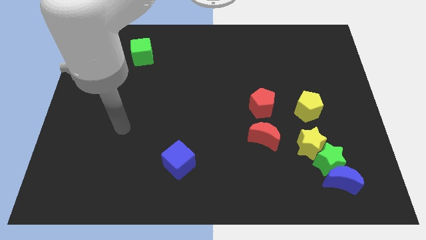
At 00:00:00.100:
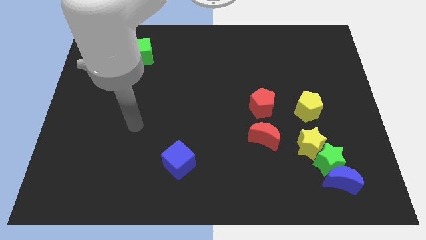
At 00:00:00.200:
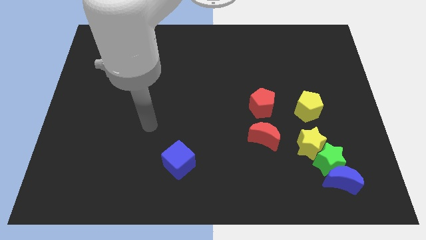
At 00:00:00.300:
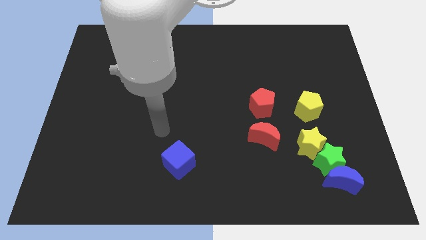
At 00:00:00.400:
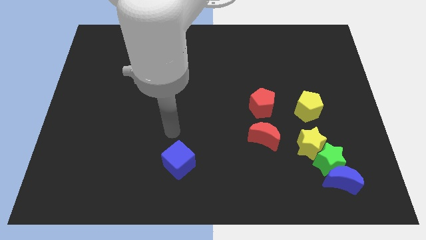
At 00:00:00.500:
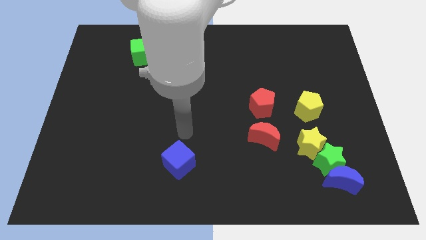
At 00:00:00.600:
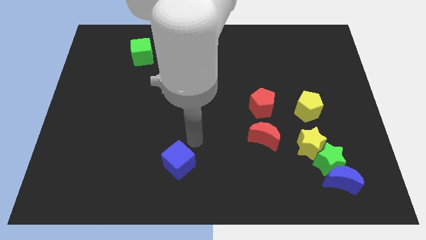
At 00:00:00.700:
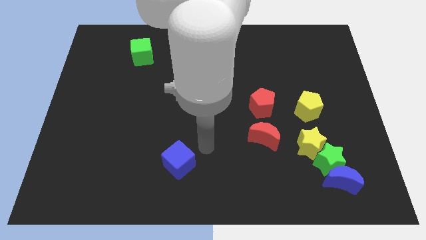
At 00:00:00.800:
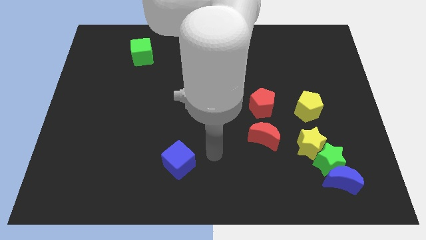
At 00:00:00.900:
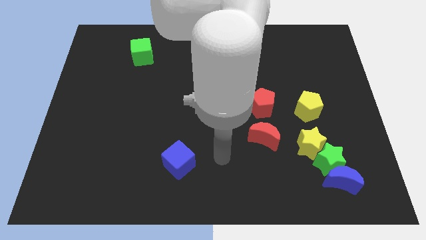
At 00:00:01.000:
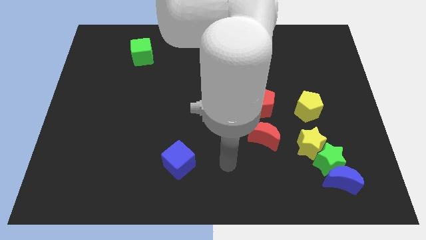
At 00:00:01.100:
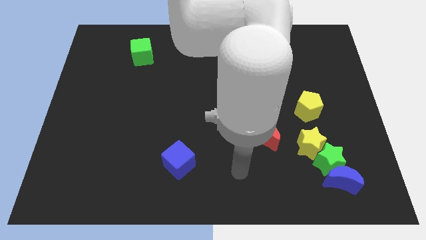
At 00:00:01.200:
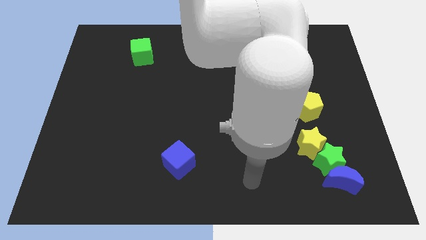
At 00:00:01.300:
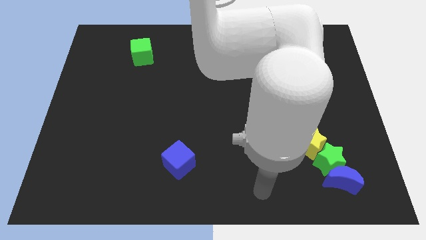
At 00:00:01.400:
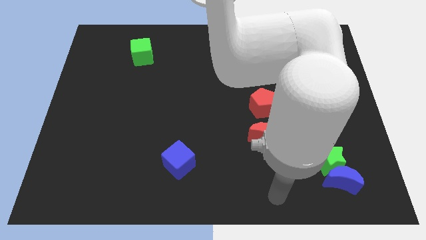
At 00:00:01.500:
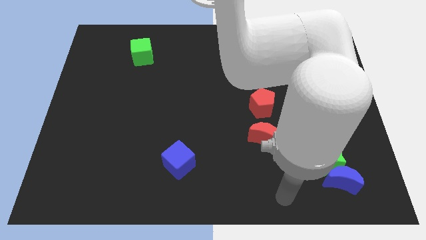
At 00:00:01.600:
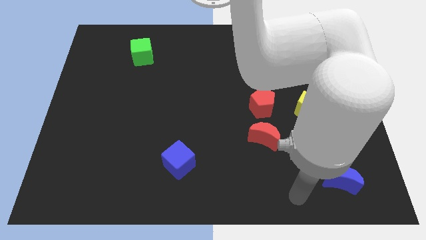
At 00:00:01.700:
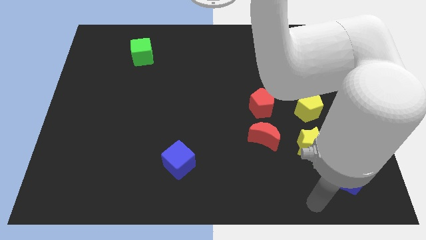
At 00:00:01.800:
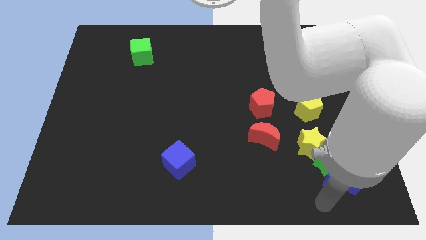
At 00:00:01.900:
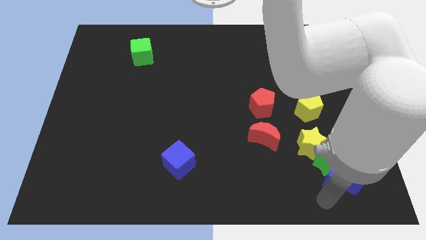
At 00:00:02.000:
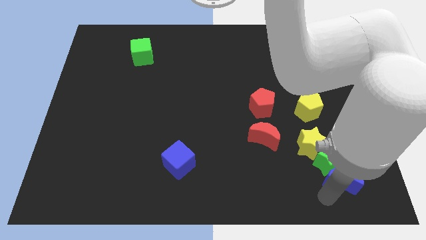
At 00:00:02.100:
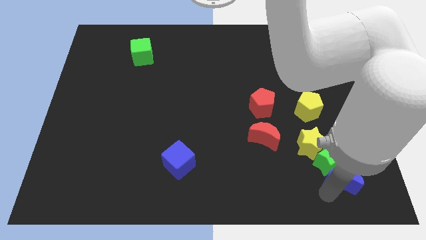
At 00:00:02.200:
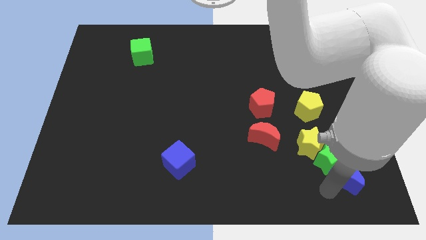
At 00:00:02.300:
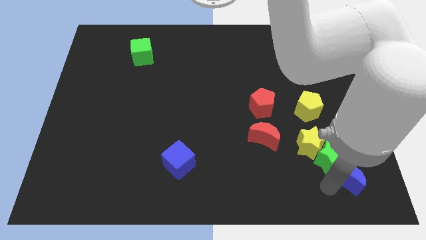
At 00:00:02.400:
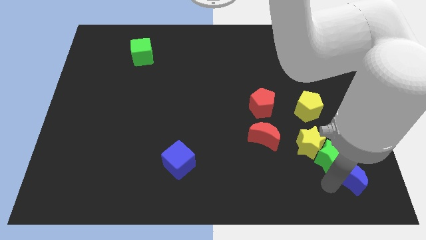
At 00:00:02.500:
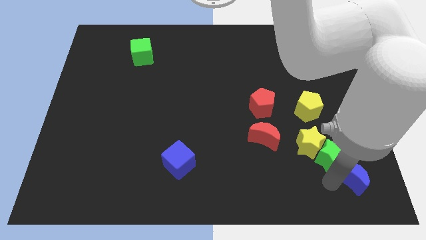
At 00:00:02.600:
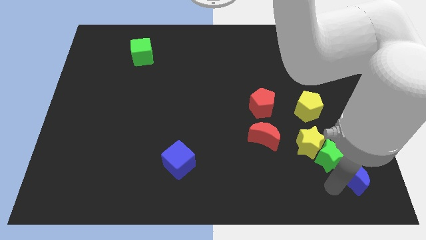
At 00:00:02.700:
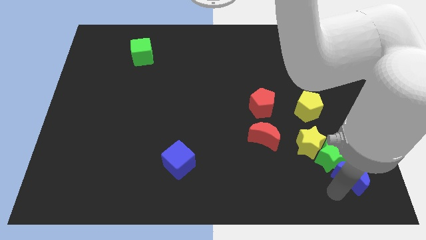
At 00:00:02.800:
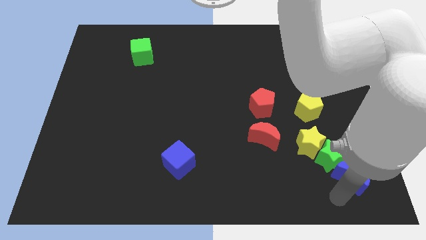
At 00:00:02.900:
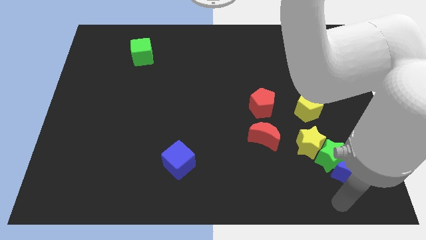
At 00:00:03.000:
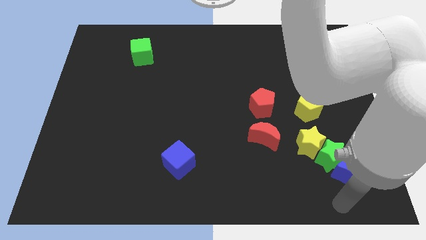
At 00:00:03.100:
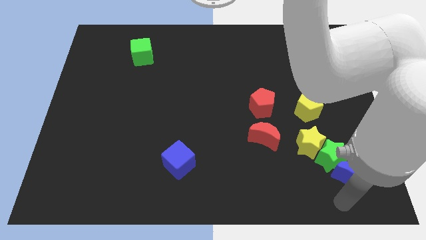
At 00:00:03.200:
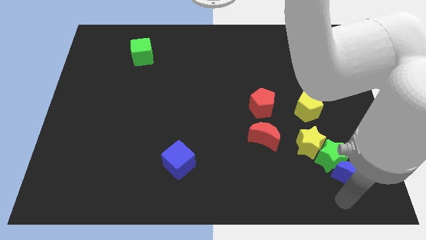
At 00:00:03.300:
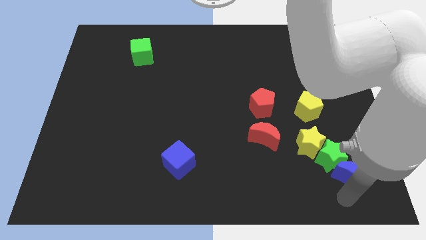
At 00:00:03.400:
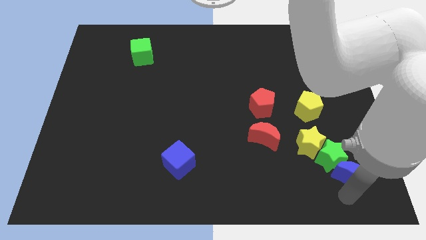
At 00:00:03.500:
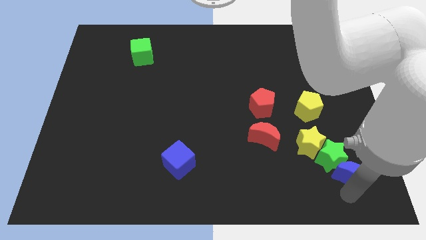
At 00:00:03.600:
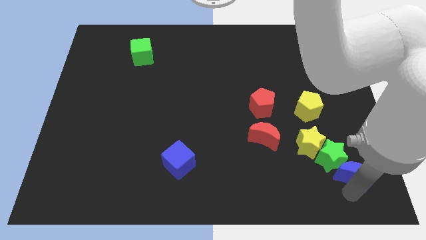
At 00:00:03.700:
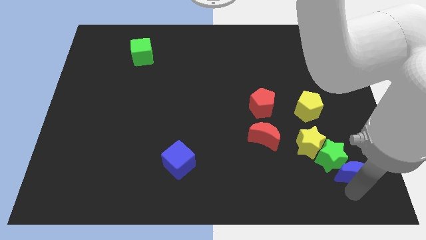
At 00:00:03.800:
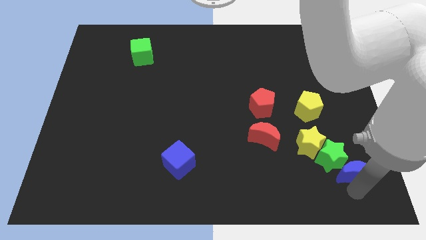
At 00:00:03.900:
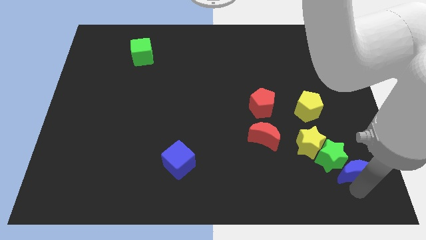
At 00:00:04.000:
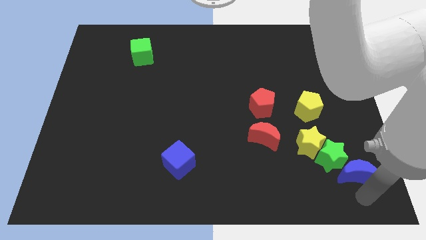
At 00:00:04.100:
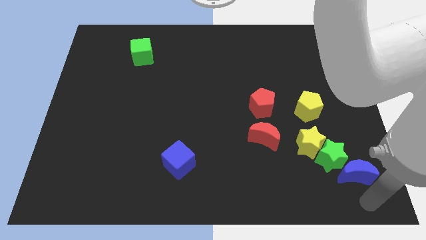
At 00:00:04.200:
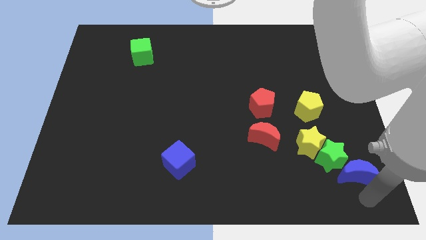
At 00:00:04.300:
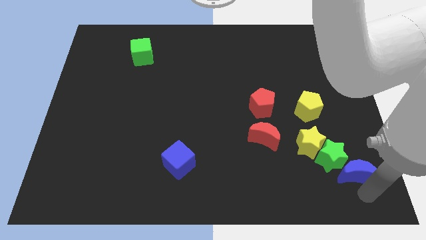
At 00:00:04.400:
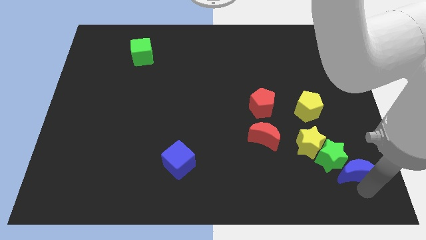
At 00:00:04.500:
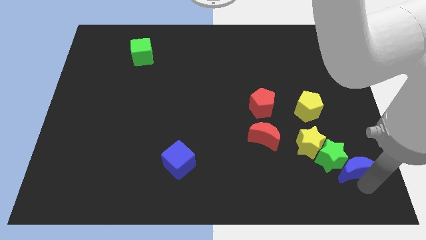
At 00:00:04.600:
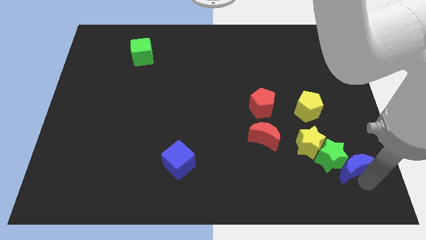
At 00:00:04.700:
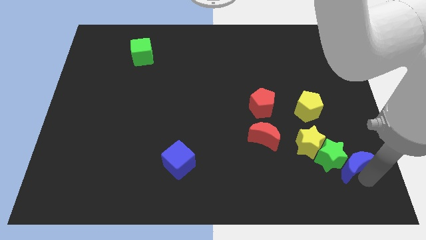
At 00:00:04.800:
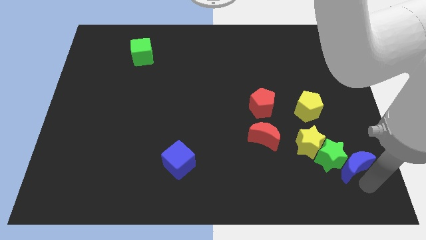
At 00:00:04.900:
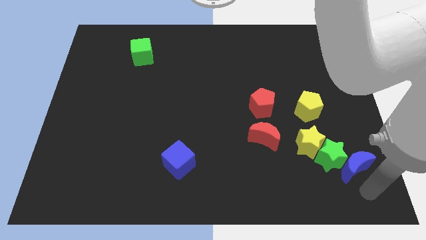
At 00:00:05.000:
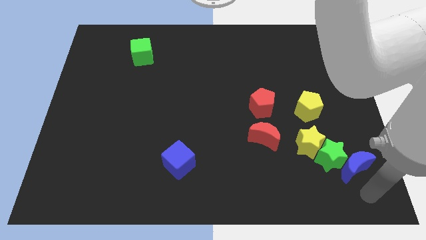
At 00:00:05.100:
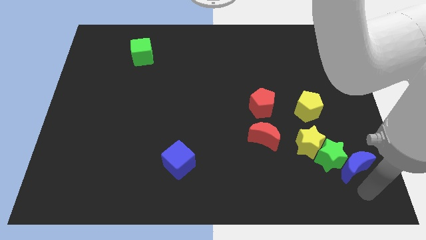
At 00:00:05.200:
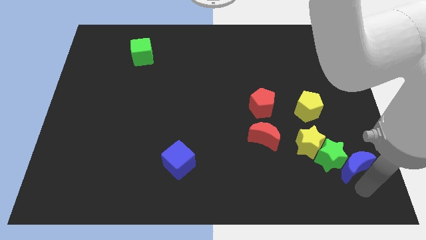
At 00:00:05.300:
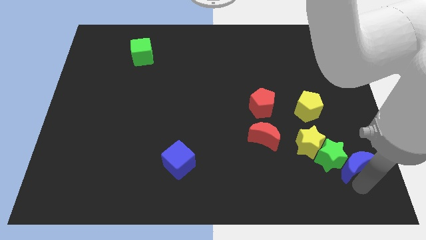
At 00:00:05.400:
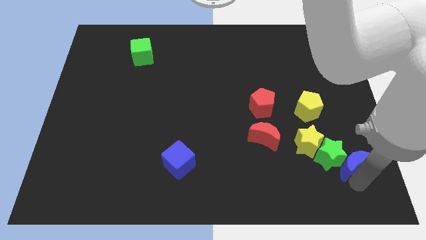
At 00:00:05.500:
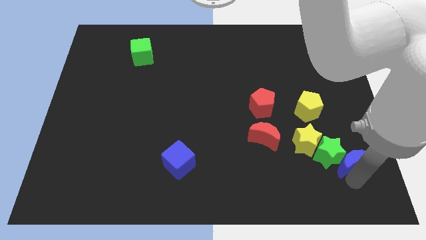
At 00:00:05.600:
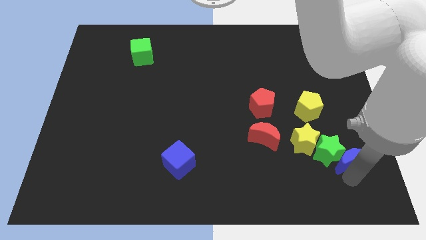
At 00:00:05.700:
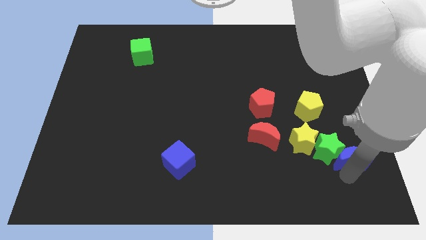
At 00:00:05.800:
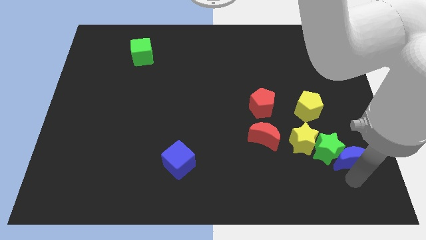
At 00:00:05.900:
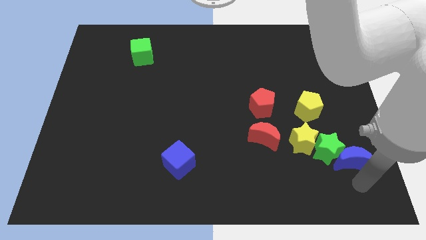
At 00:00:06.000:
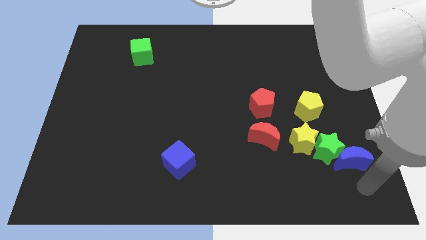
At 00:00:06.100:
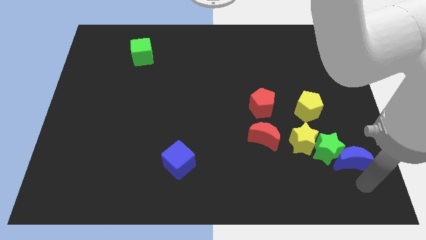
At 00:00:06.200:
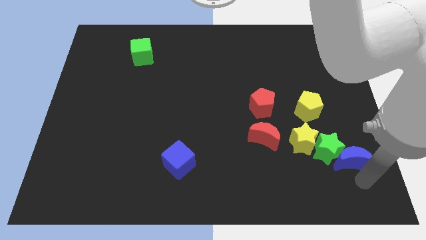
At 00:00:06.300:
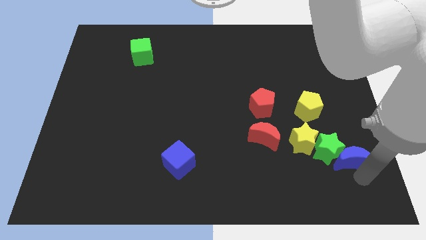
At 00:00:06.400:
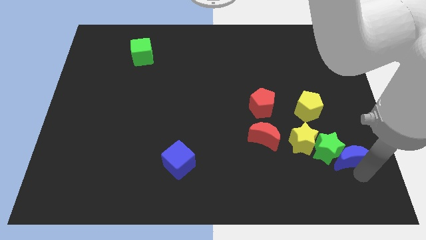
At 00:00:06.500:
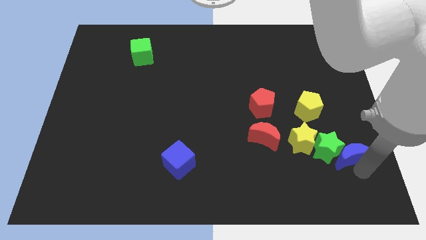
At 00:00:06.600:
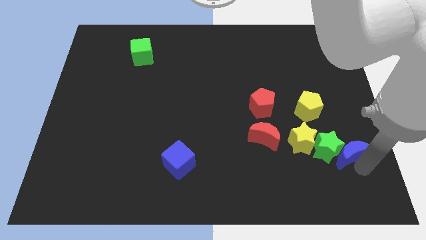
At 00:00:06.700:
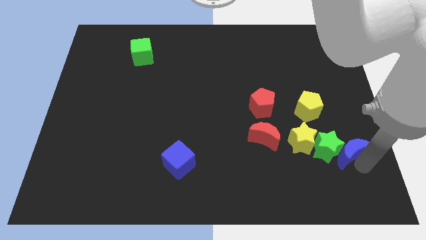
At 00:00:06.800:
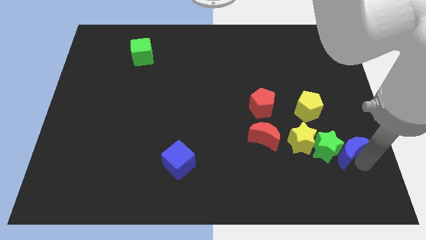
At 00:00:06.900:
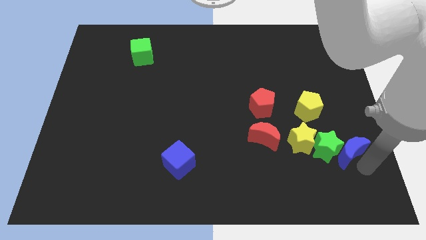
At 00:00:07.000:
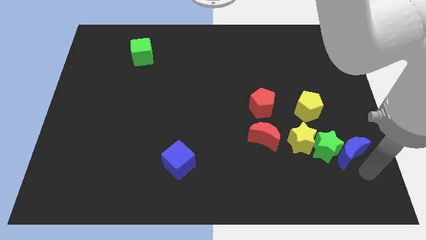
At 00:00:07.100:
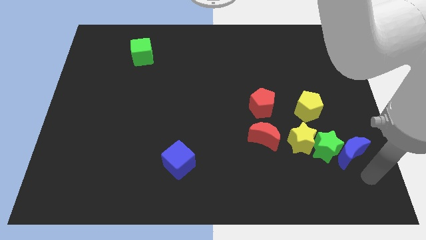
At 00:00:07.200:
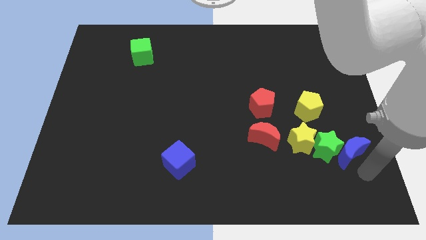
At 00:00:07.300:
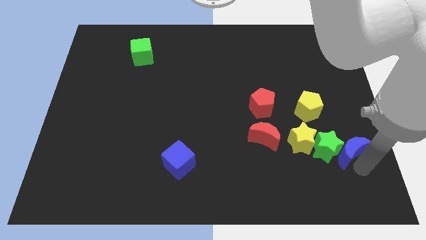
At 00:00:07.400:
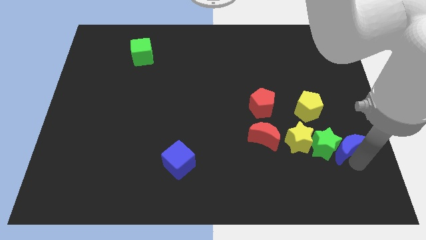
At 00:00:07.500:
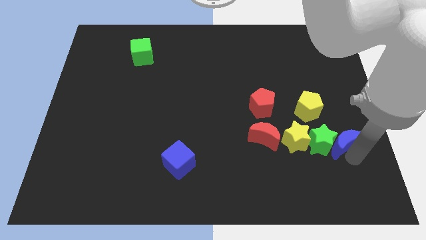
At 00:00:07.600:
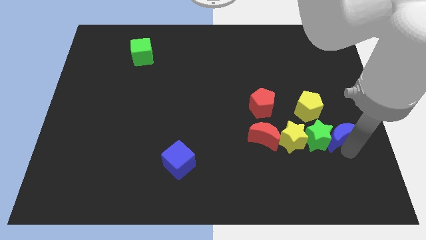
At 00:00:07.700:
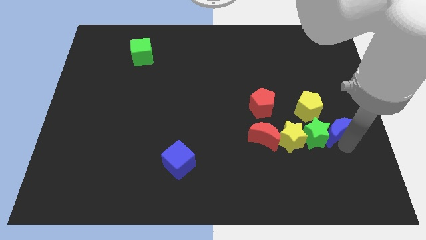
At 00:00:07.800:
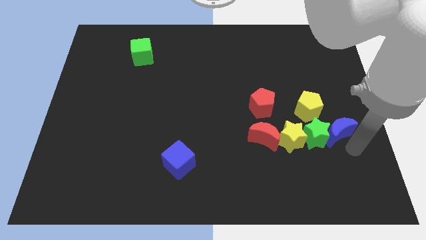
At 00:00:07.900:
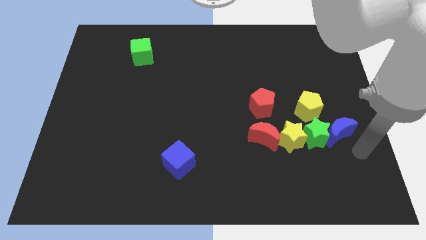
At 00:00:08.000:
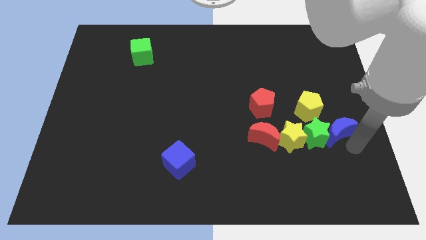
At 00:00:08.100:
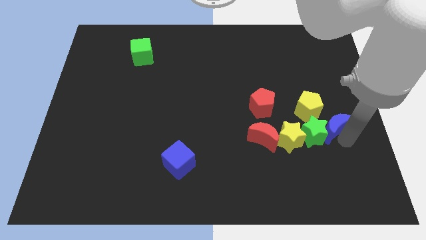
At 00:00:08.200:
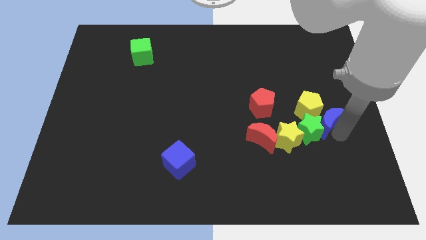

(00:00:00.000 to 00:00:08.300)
move the blue moon close to the yellow pentagon
